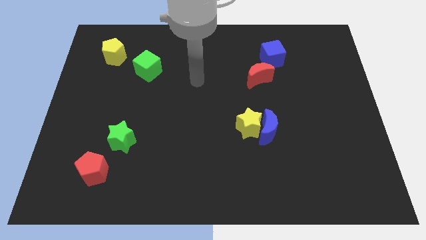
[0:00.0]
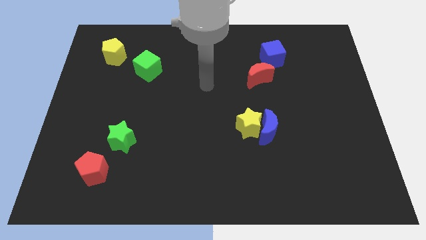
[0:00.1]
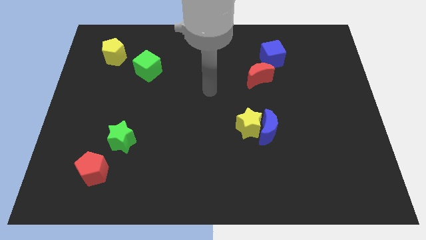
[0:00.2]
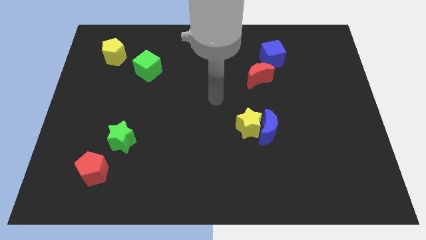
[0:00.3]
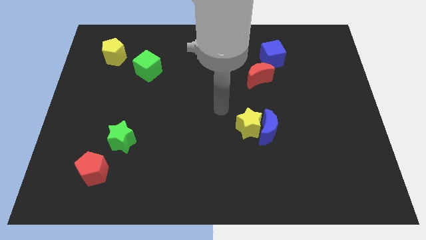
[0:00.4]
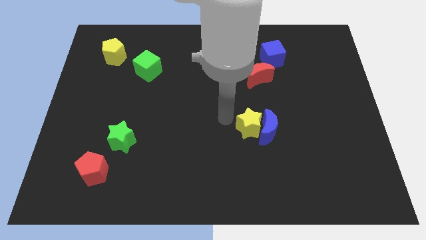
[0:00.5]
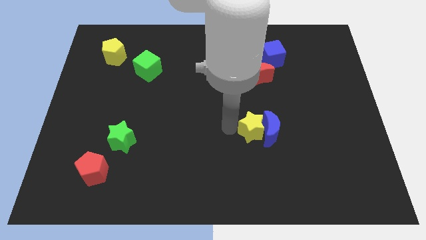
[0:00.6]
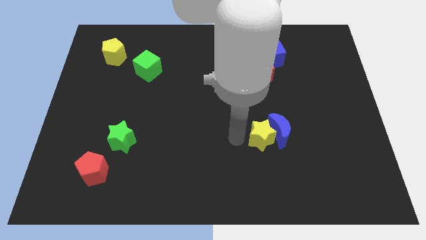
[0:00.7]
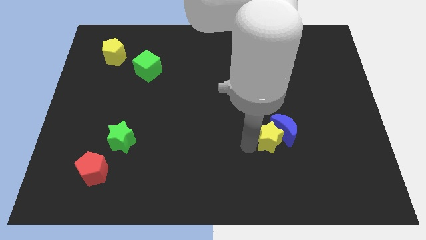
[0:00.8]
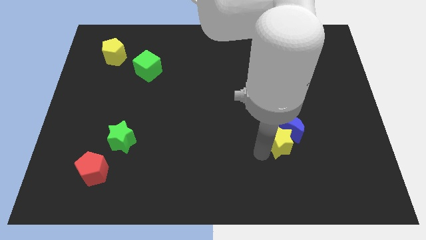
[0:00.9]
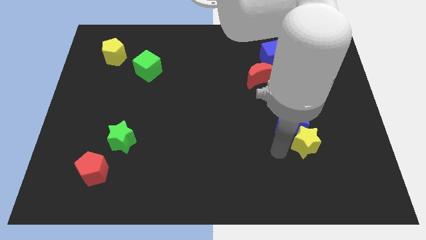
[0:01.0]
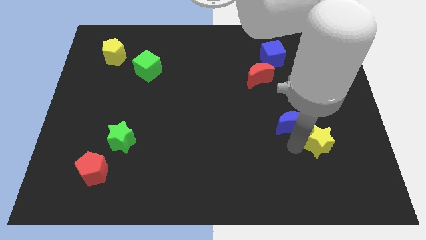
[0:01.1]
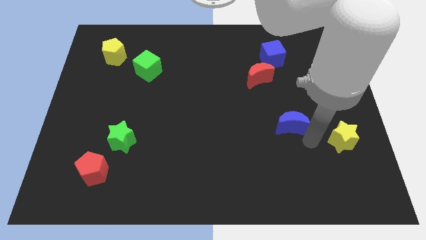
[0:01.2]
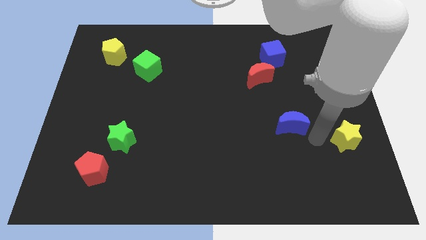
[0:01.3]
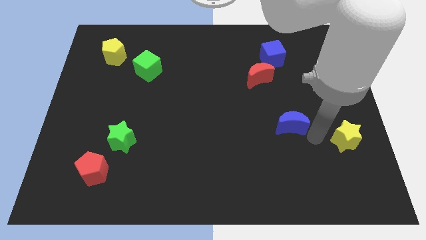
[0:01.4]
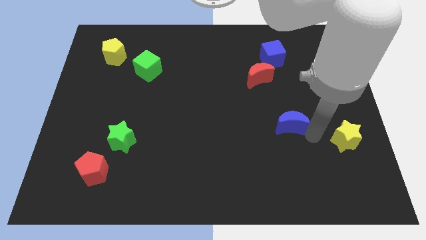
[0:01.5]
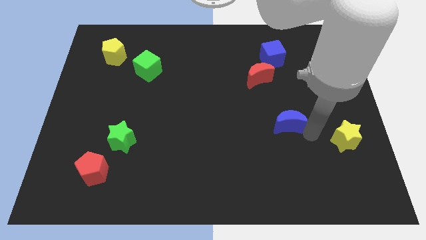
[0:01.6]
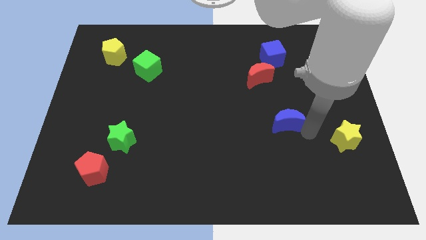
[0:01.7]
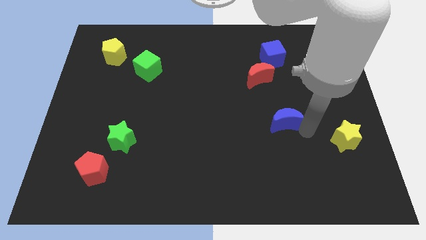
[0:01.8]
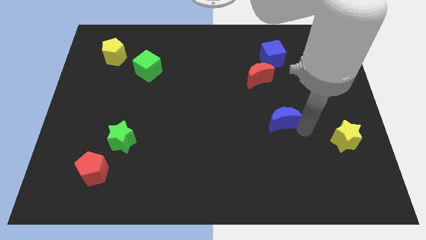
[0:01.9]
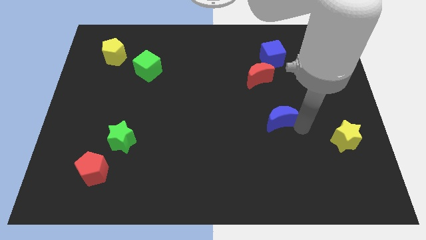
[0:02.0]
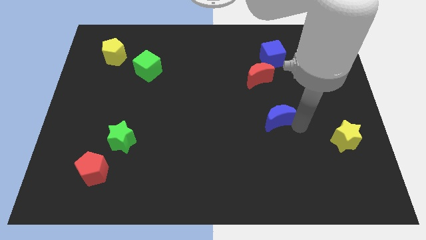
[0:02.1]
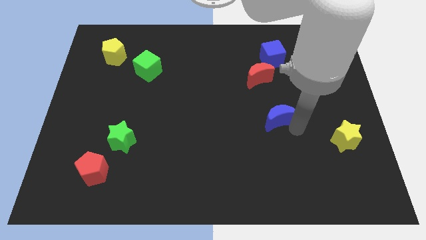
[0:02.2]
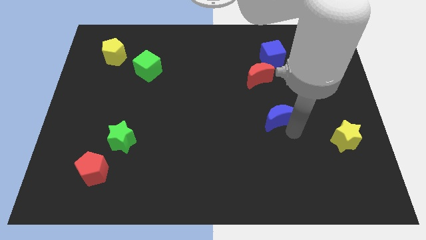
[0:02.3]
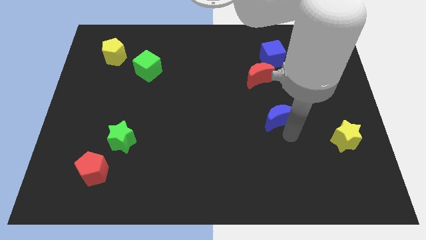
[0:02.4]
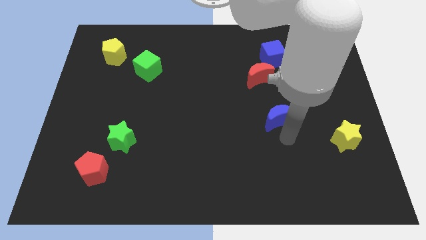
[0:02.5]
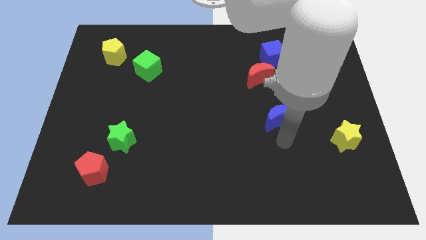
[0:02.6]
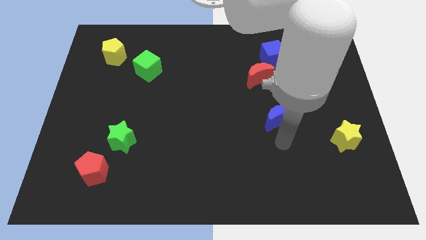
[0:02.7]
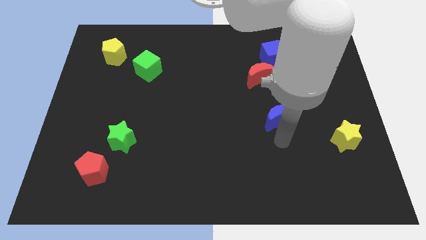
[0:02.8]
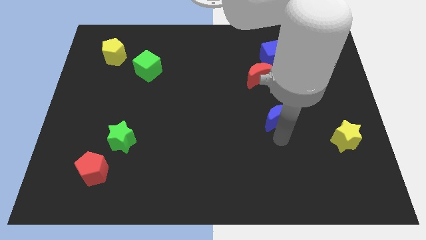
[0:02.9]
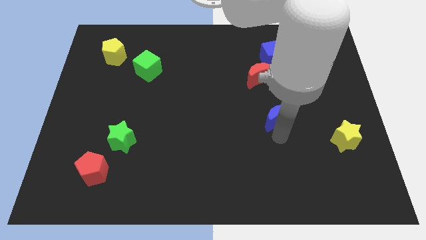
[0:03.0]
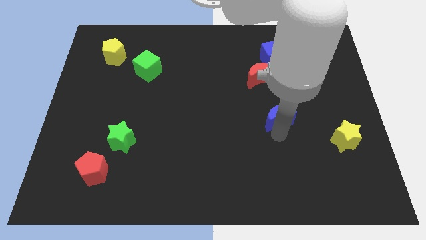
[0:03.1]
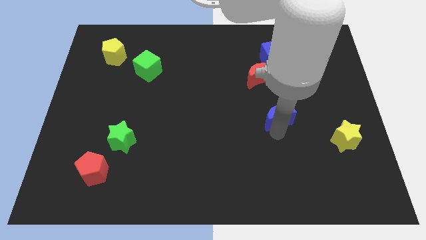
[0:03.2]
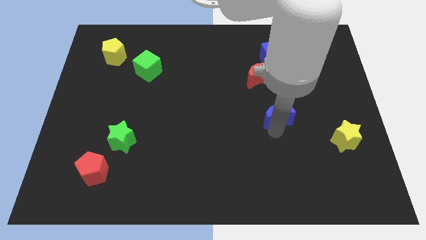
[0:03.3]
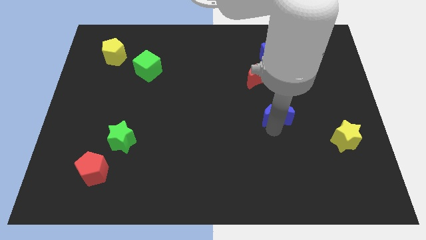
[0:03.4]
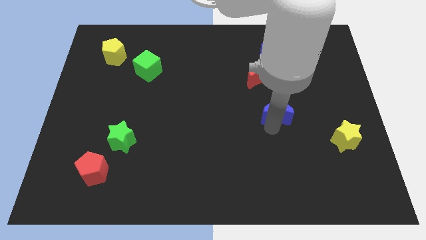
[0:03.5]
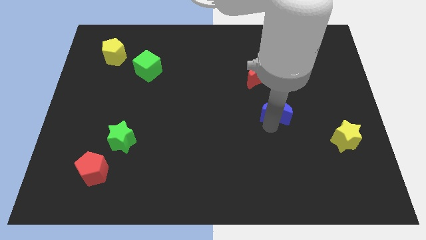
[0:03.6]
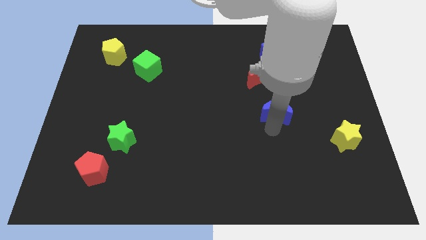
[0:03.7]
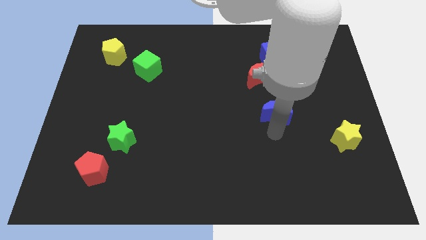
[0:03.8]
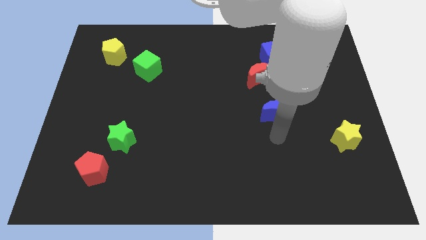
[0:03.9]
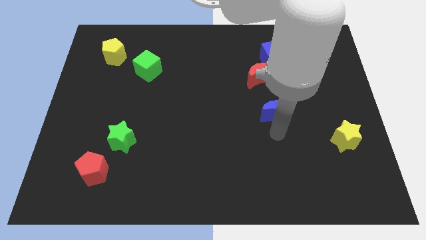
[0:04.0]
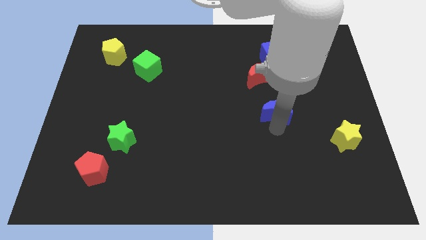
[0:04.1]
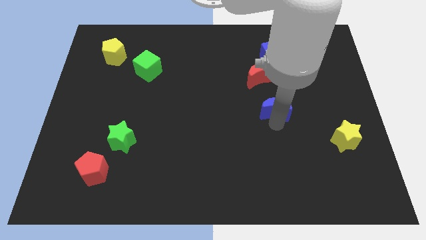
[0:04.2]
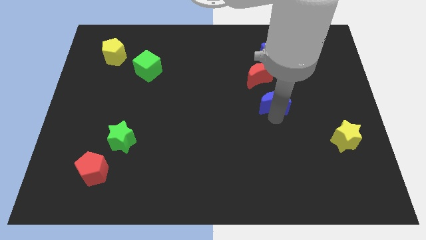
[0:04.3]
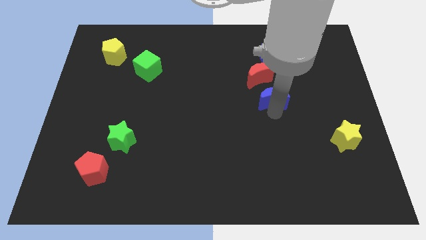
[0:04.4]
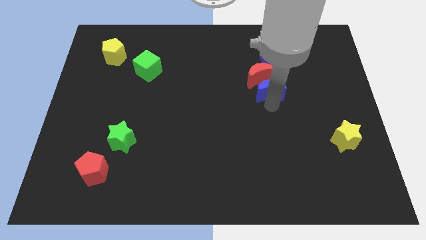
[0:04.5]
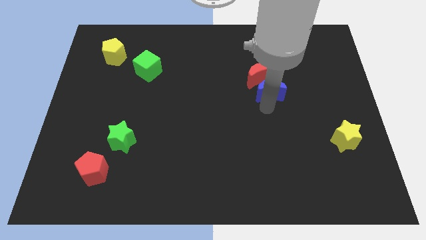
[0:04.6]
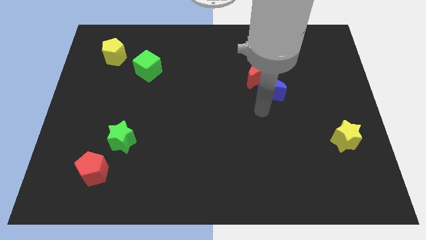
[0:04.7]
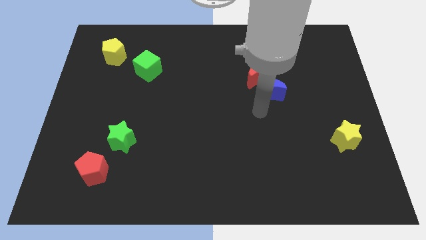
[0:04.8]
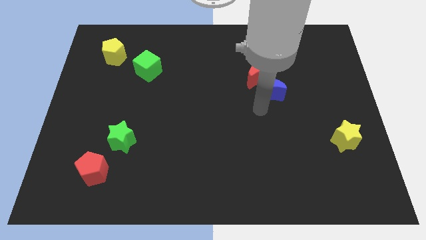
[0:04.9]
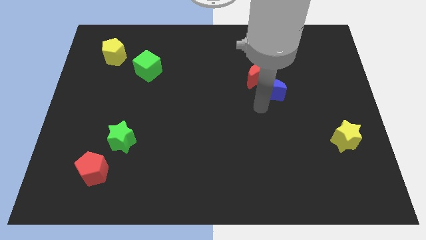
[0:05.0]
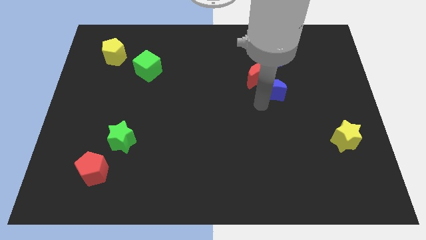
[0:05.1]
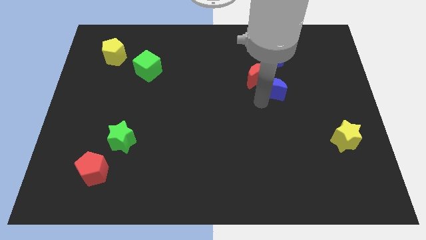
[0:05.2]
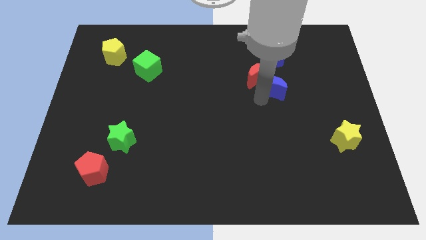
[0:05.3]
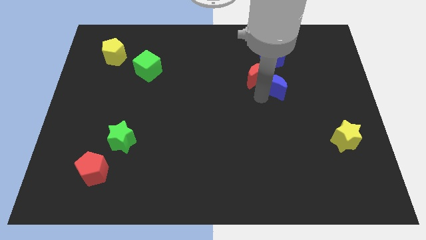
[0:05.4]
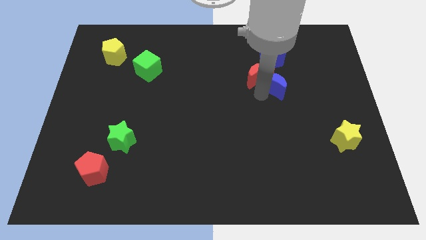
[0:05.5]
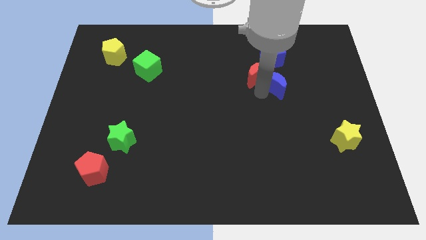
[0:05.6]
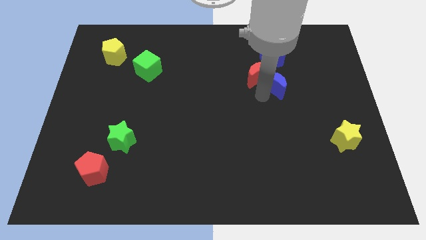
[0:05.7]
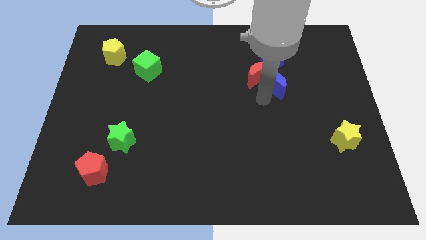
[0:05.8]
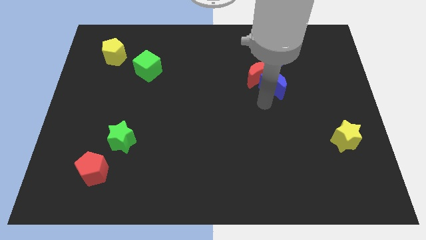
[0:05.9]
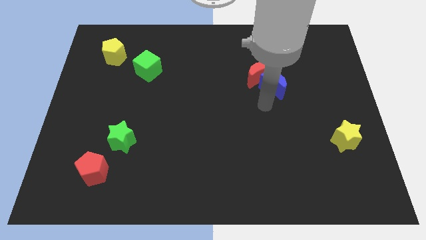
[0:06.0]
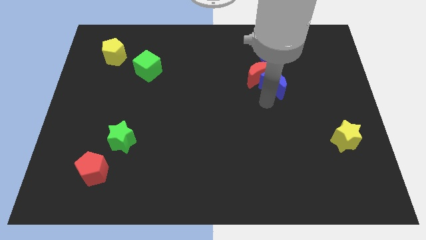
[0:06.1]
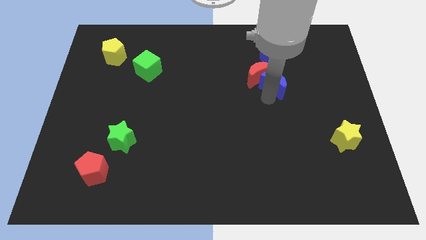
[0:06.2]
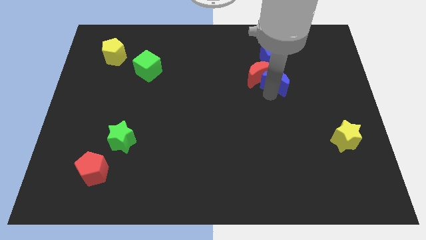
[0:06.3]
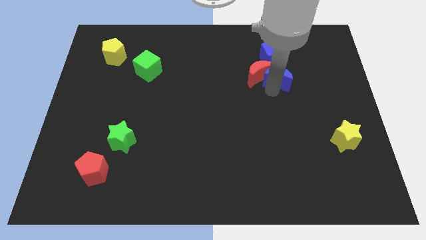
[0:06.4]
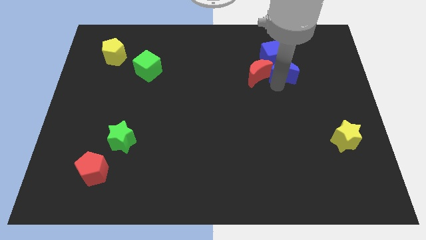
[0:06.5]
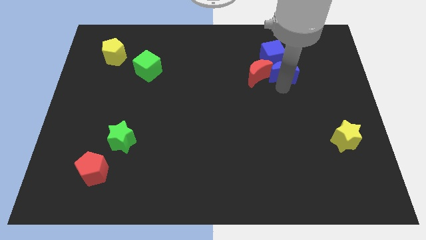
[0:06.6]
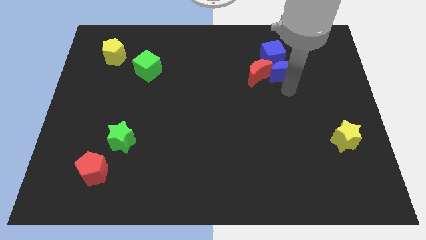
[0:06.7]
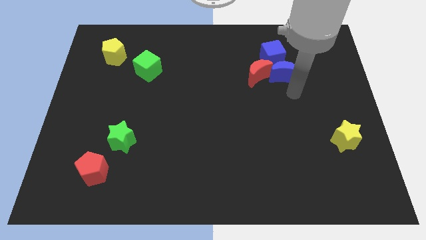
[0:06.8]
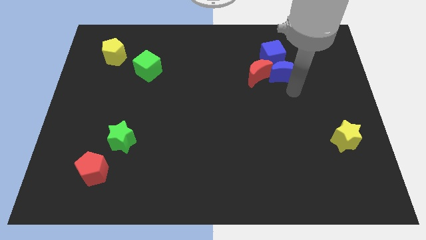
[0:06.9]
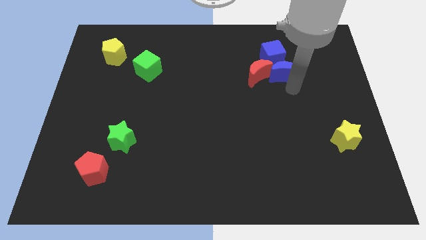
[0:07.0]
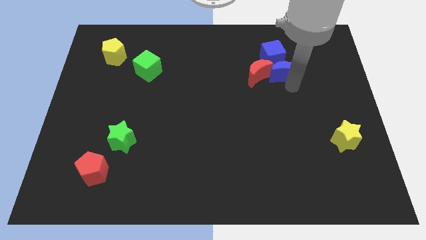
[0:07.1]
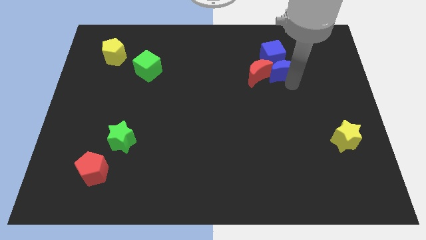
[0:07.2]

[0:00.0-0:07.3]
push the blue moon to the blue cube
